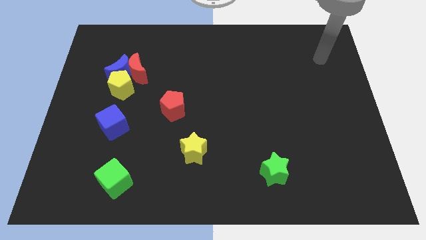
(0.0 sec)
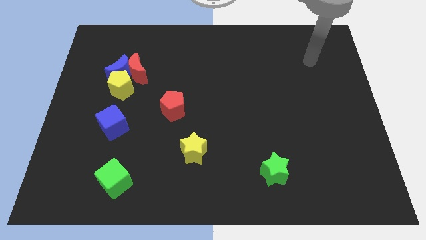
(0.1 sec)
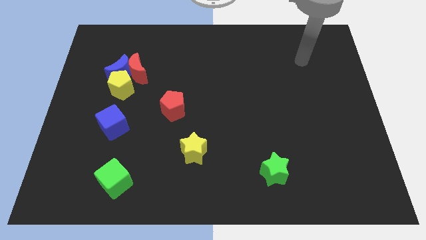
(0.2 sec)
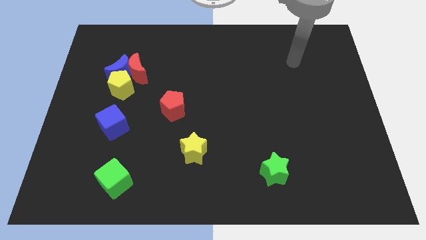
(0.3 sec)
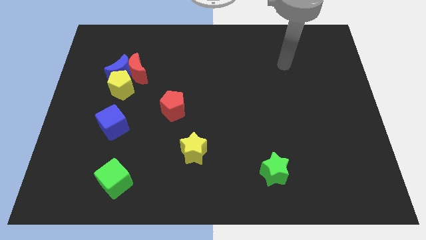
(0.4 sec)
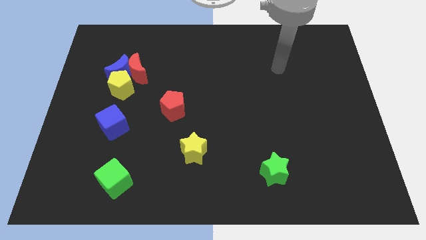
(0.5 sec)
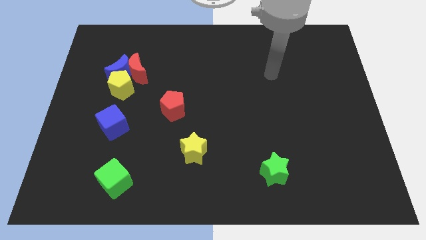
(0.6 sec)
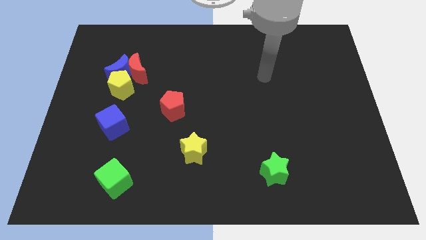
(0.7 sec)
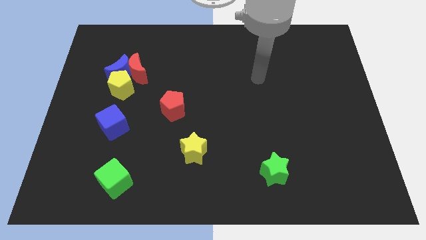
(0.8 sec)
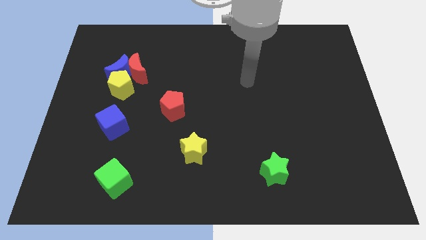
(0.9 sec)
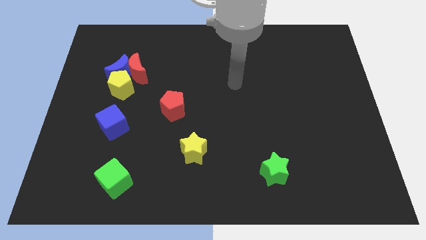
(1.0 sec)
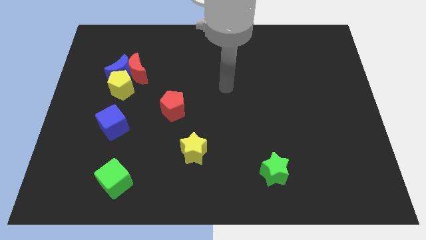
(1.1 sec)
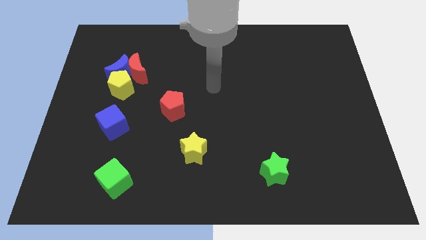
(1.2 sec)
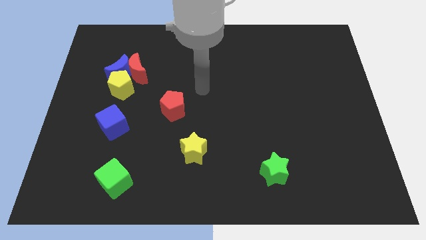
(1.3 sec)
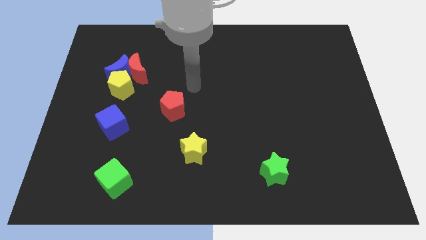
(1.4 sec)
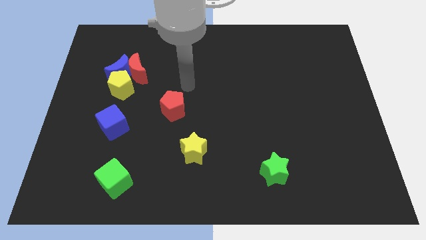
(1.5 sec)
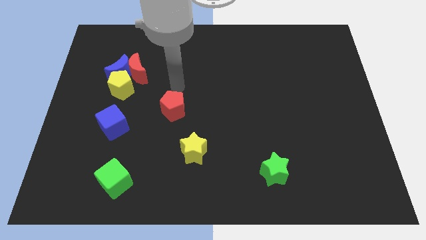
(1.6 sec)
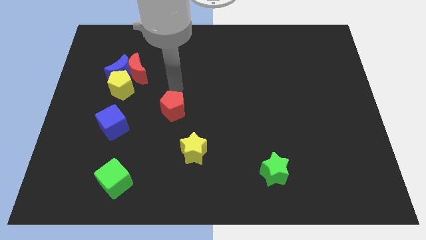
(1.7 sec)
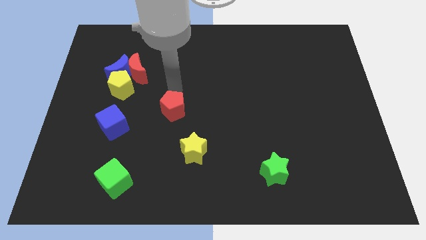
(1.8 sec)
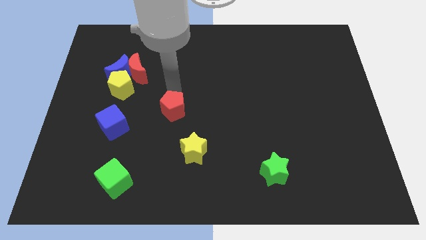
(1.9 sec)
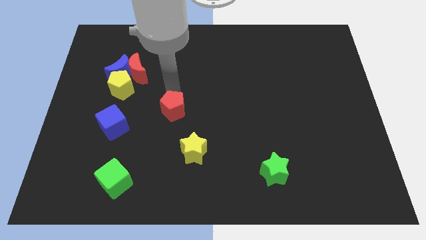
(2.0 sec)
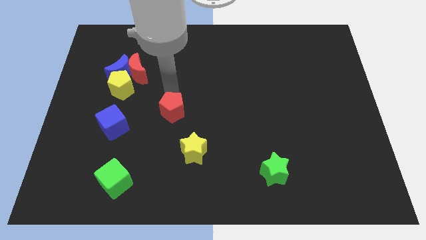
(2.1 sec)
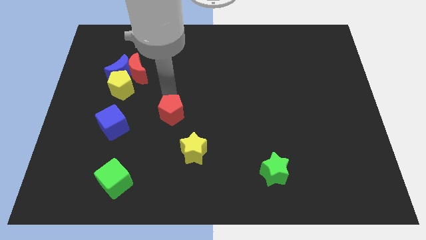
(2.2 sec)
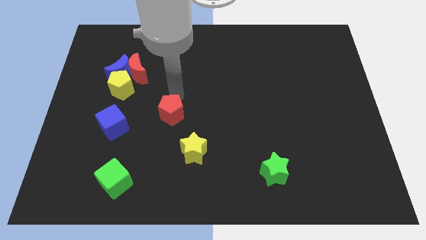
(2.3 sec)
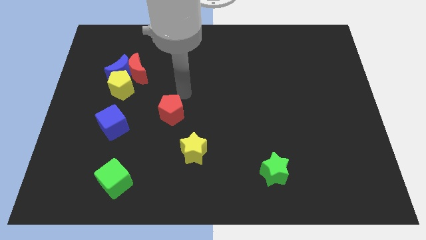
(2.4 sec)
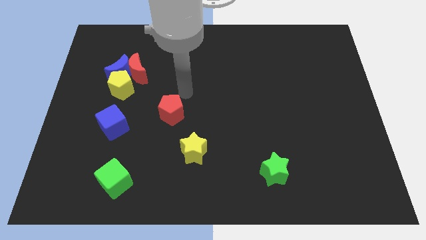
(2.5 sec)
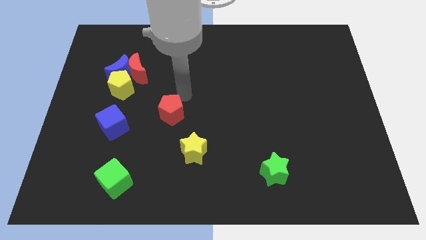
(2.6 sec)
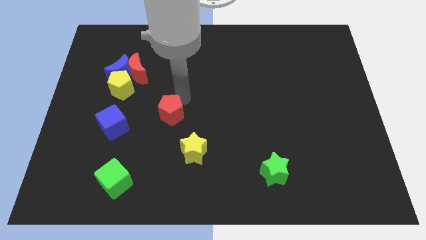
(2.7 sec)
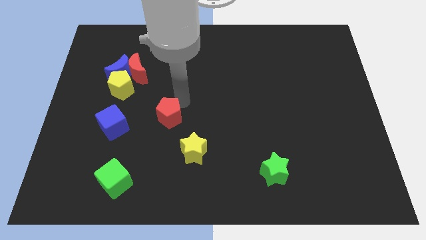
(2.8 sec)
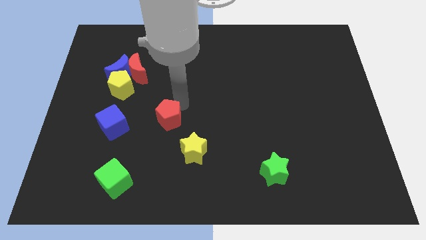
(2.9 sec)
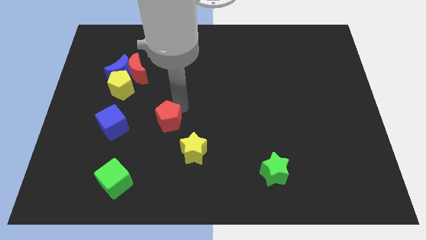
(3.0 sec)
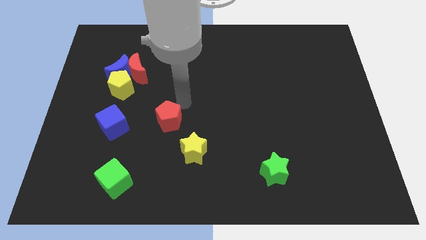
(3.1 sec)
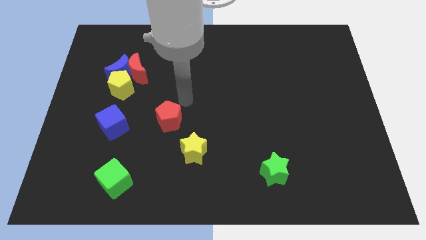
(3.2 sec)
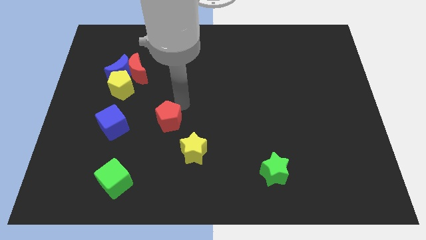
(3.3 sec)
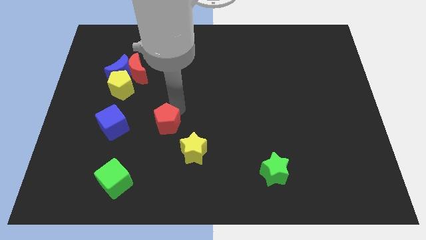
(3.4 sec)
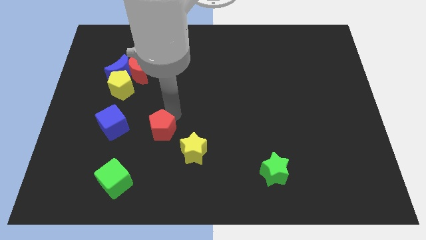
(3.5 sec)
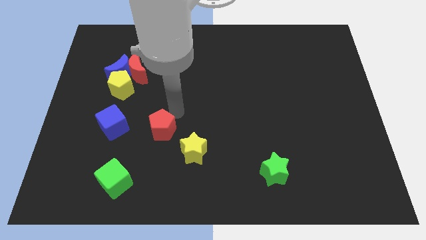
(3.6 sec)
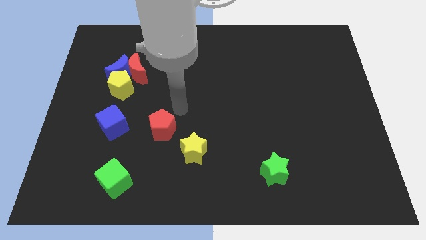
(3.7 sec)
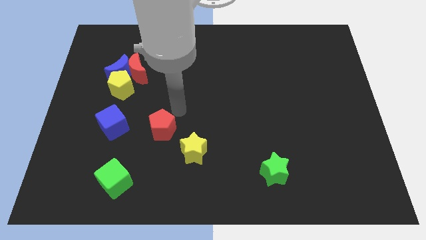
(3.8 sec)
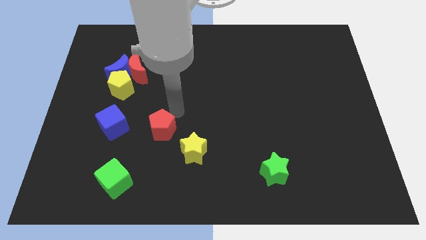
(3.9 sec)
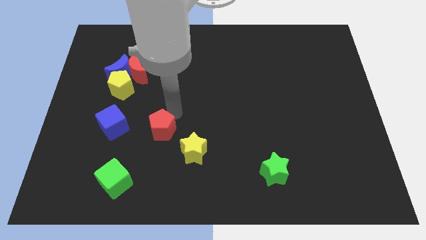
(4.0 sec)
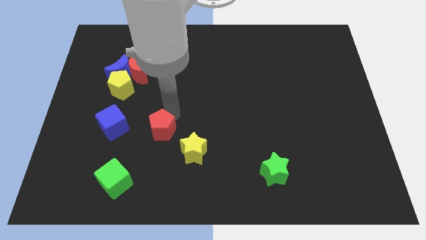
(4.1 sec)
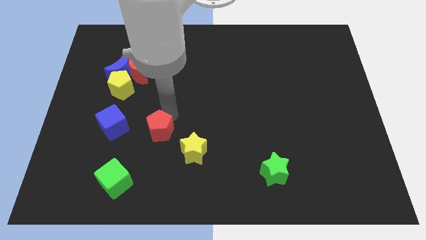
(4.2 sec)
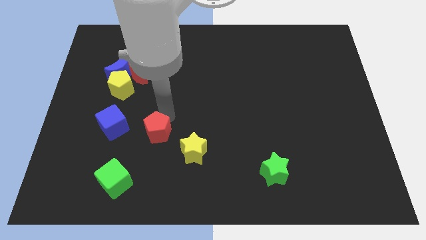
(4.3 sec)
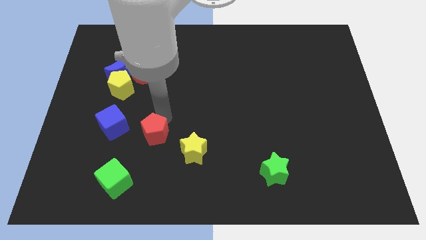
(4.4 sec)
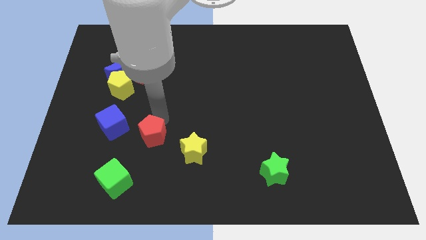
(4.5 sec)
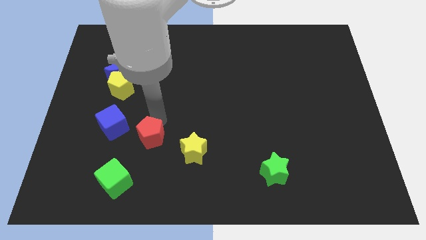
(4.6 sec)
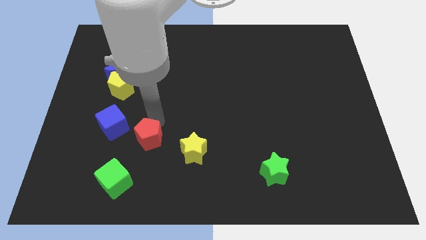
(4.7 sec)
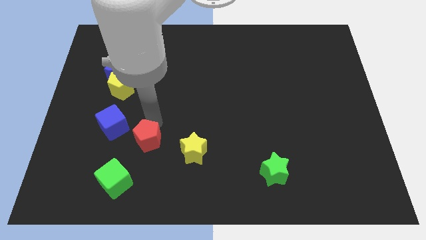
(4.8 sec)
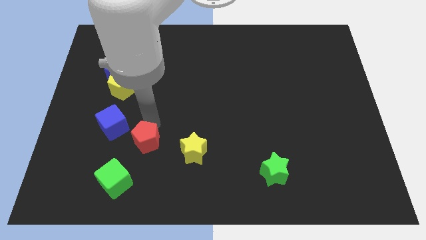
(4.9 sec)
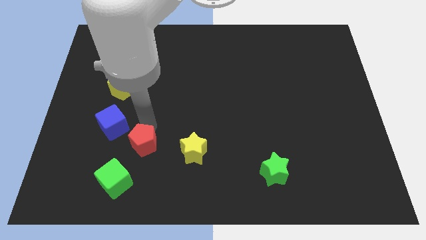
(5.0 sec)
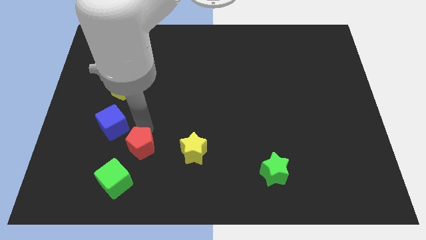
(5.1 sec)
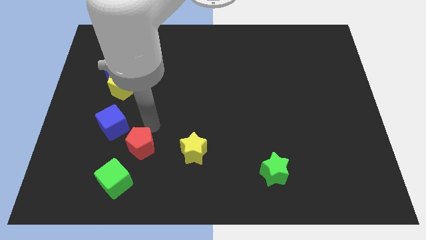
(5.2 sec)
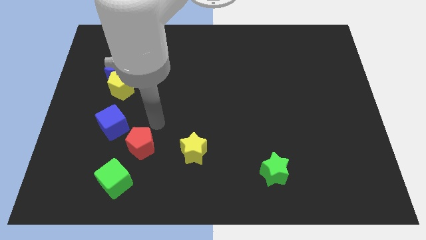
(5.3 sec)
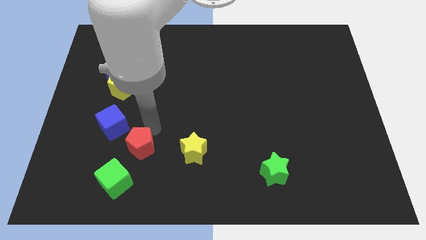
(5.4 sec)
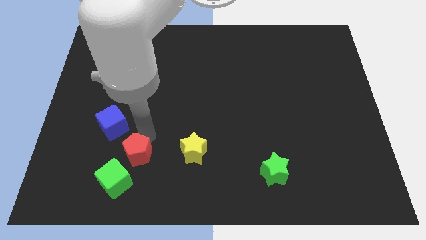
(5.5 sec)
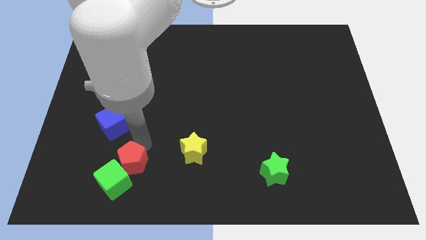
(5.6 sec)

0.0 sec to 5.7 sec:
push the red pentagon next to the green cube

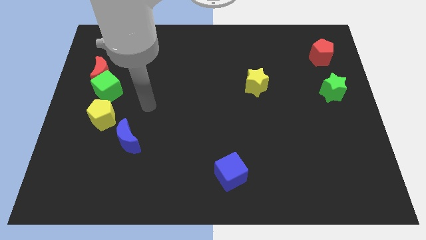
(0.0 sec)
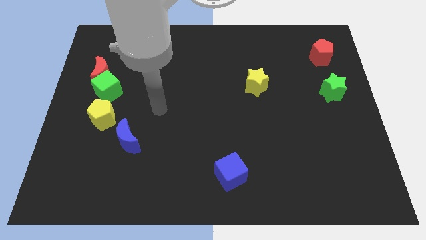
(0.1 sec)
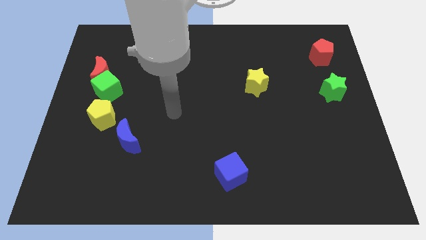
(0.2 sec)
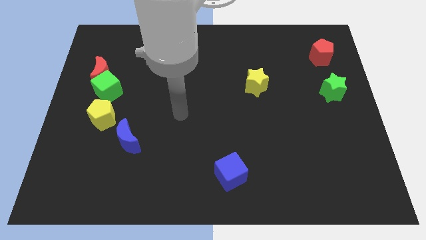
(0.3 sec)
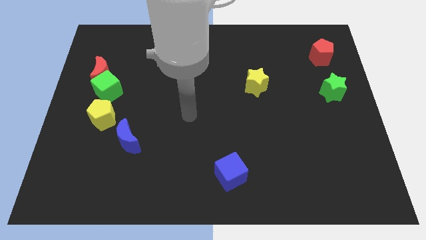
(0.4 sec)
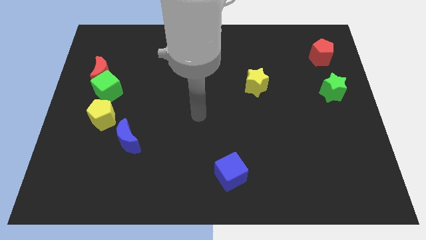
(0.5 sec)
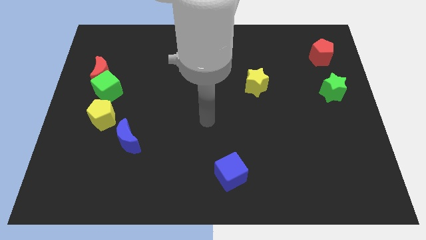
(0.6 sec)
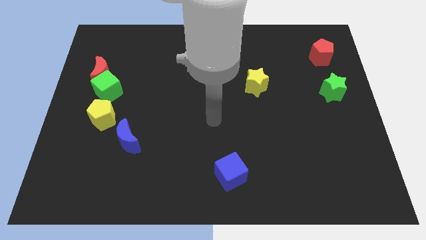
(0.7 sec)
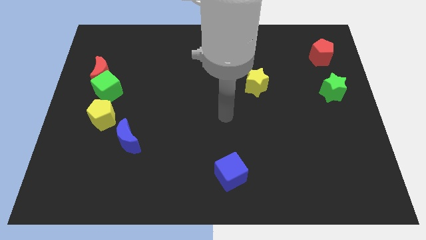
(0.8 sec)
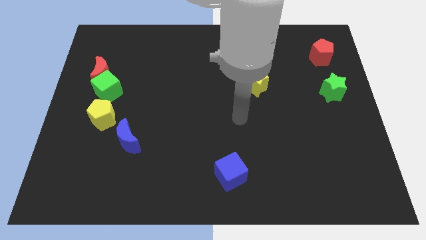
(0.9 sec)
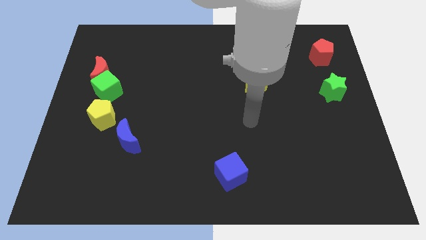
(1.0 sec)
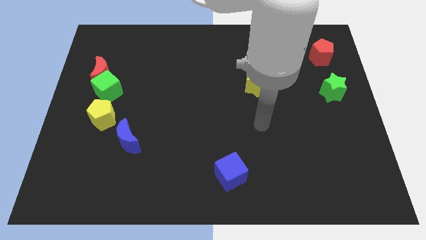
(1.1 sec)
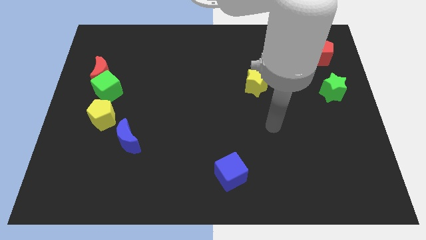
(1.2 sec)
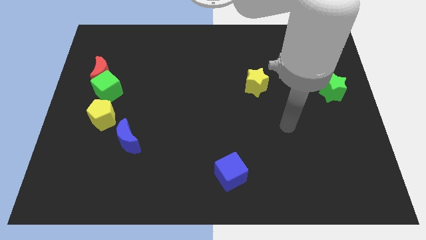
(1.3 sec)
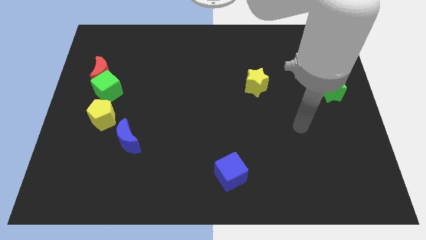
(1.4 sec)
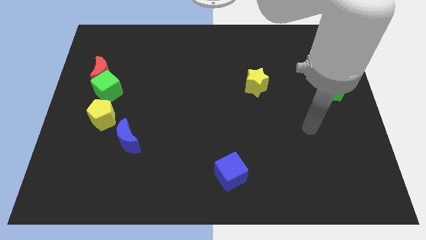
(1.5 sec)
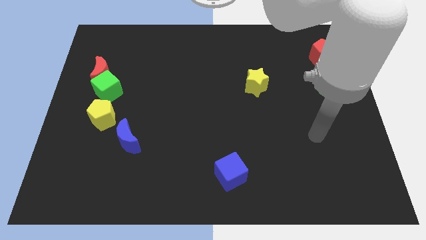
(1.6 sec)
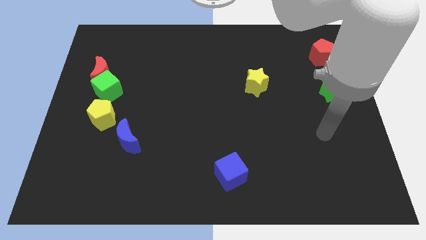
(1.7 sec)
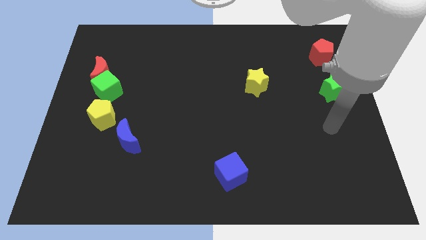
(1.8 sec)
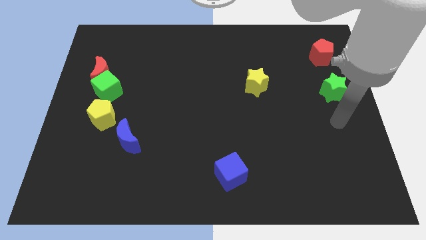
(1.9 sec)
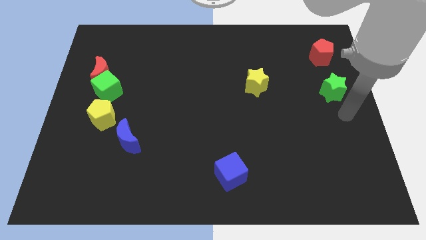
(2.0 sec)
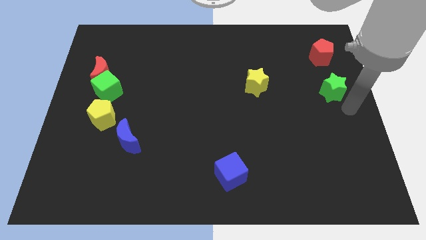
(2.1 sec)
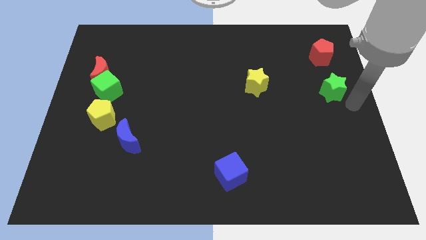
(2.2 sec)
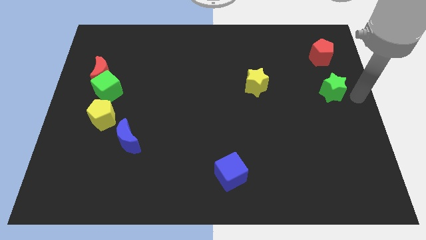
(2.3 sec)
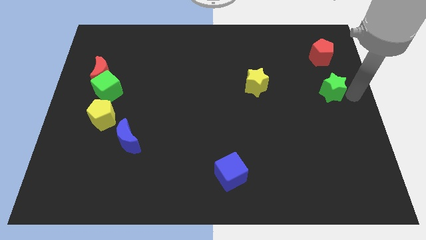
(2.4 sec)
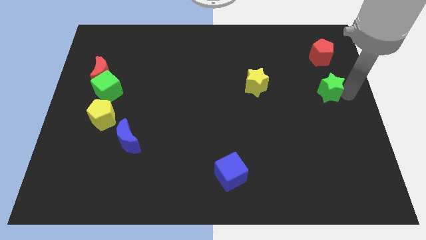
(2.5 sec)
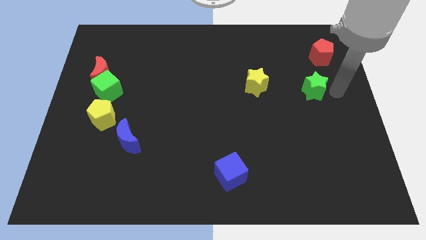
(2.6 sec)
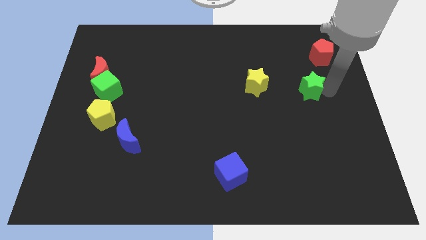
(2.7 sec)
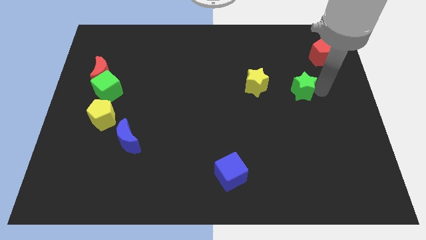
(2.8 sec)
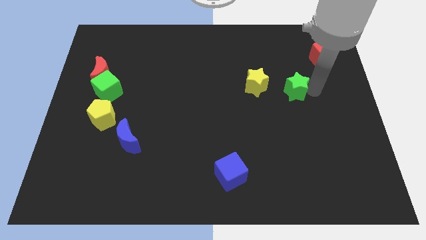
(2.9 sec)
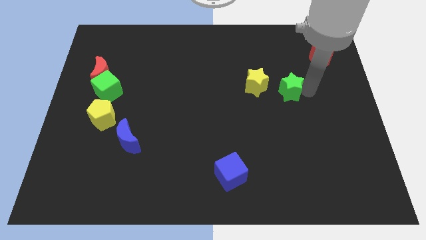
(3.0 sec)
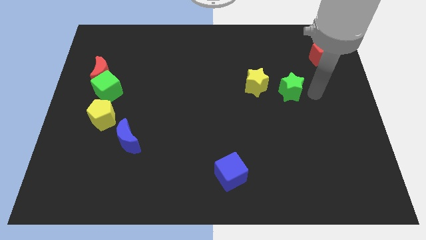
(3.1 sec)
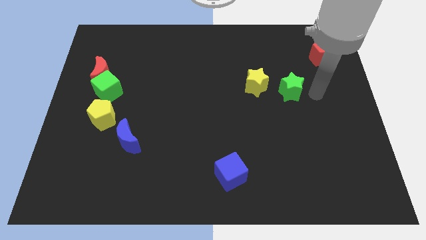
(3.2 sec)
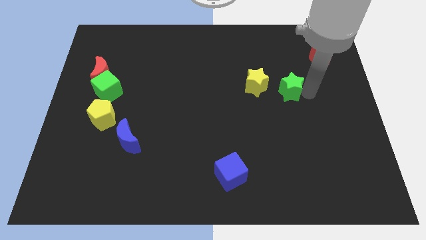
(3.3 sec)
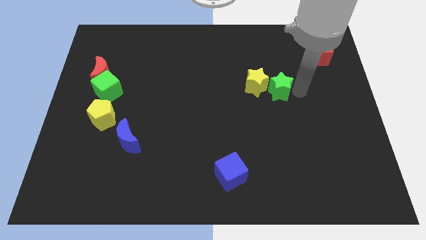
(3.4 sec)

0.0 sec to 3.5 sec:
push the green star to the yellow star
